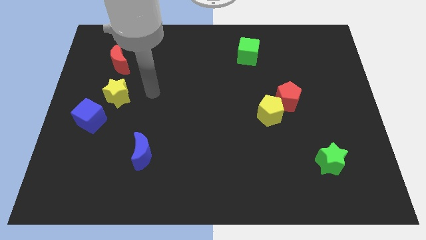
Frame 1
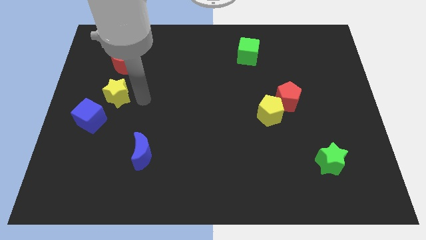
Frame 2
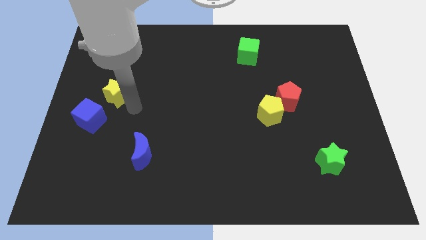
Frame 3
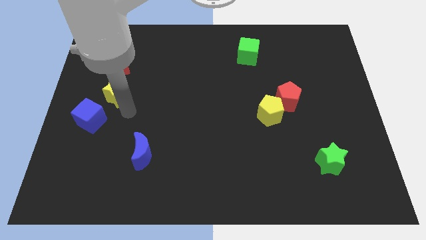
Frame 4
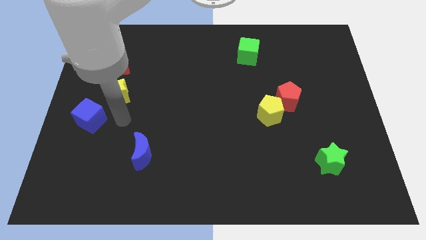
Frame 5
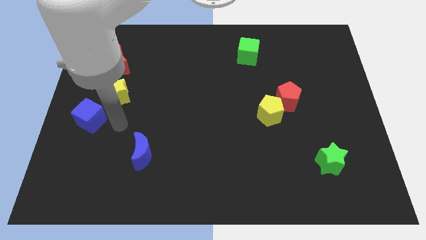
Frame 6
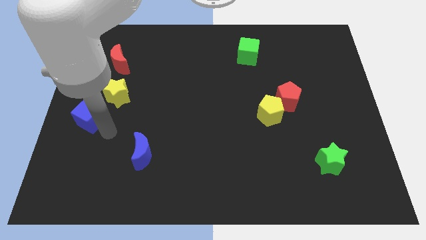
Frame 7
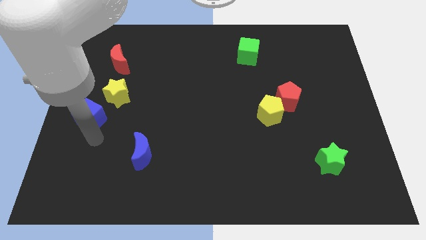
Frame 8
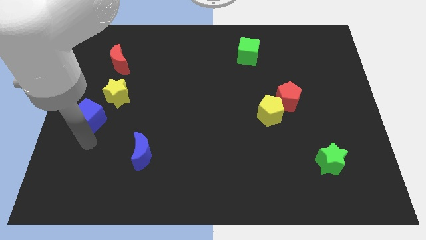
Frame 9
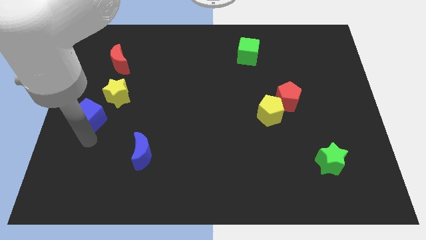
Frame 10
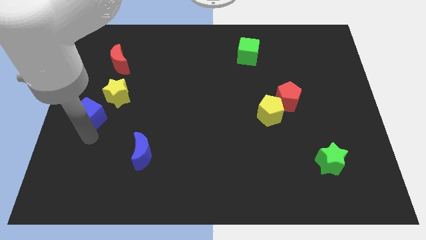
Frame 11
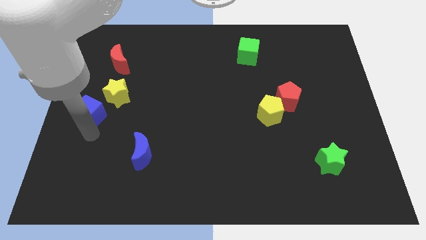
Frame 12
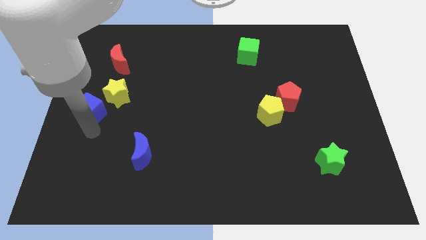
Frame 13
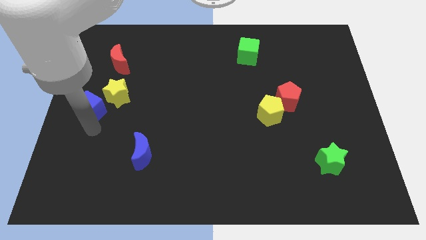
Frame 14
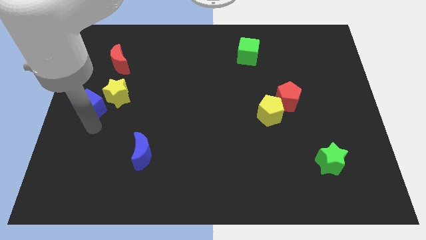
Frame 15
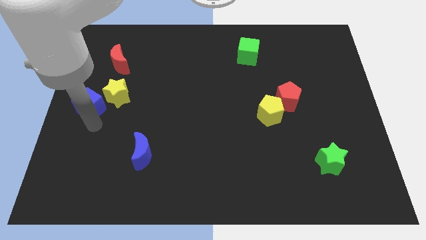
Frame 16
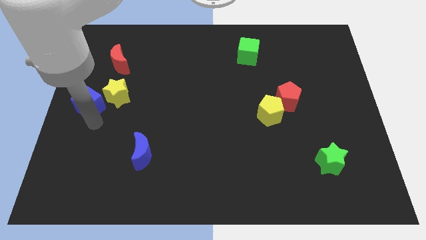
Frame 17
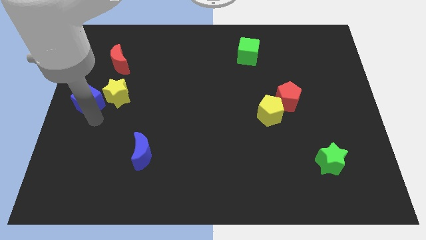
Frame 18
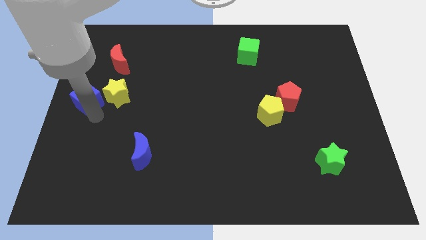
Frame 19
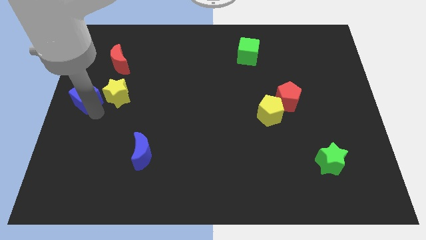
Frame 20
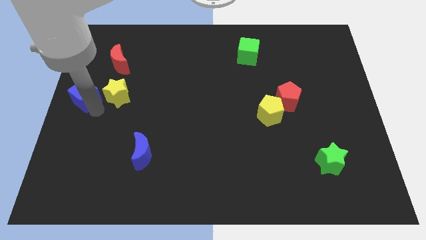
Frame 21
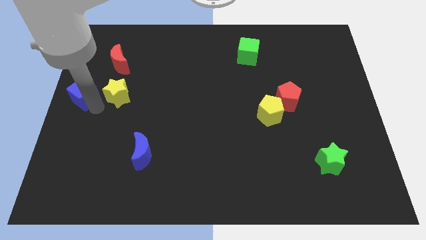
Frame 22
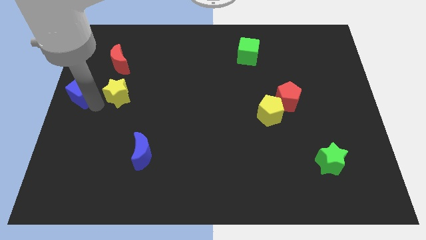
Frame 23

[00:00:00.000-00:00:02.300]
slide the blue cube somewhat upwards

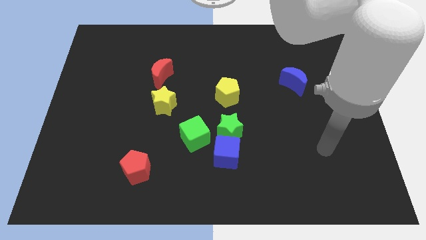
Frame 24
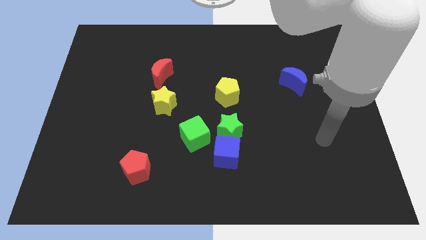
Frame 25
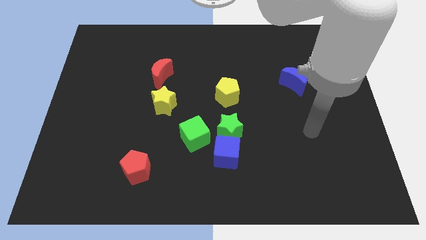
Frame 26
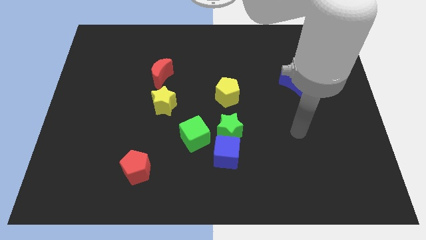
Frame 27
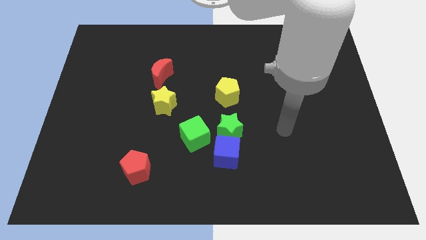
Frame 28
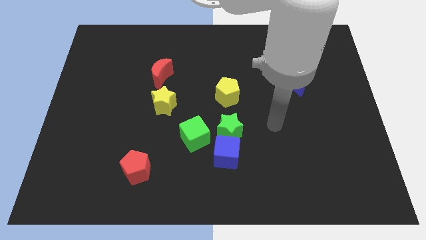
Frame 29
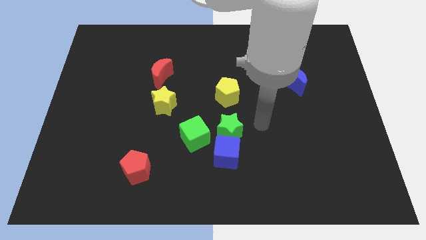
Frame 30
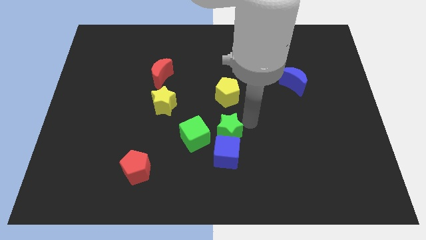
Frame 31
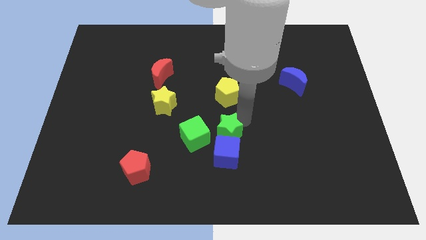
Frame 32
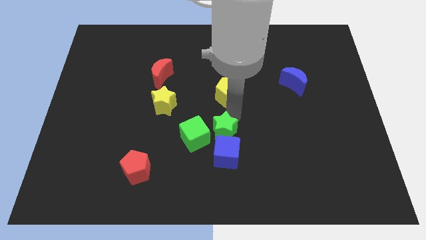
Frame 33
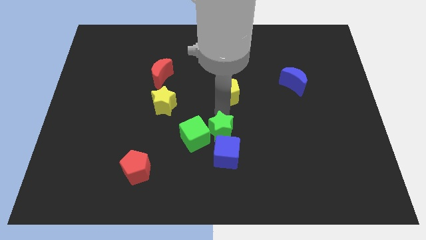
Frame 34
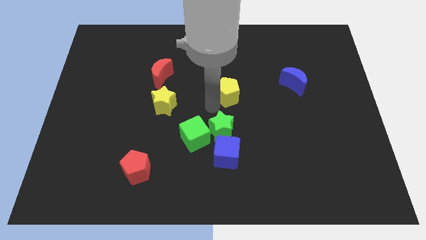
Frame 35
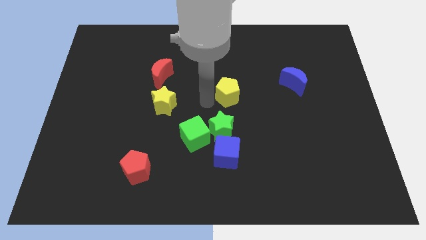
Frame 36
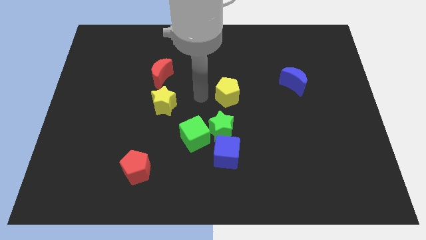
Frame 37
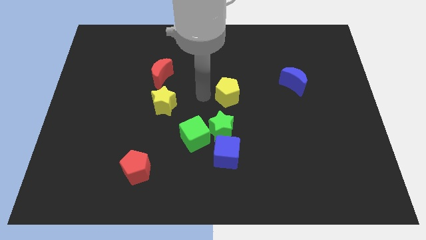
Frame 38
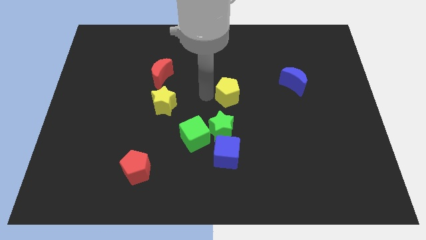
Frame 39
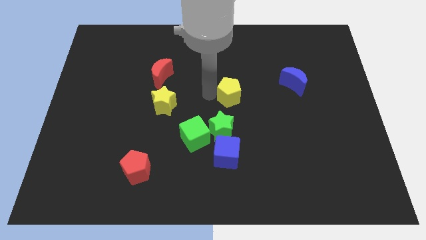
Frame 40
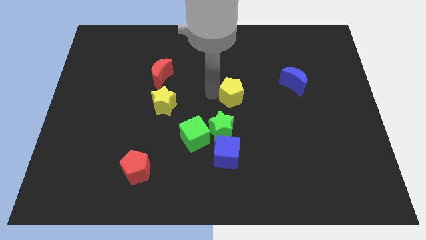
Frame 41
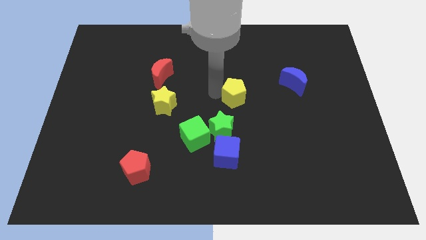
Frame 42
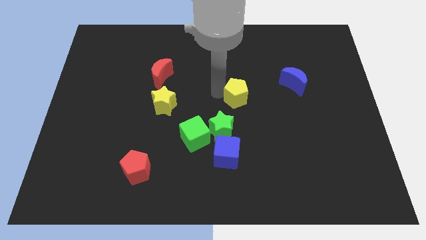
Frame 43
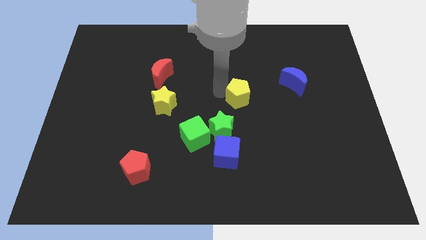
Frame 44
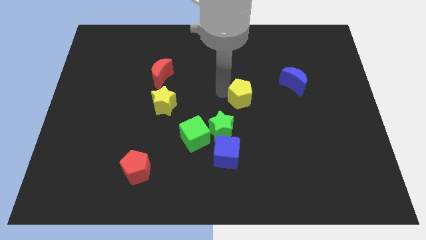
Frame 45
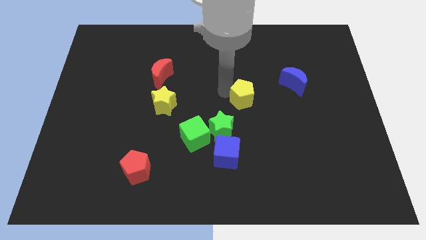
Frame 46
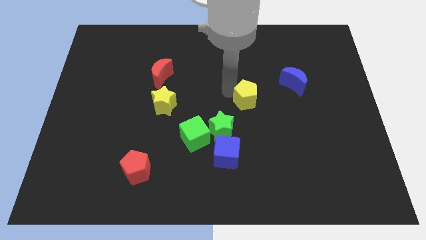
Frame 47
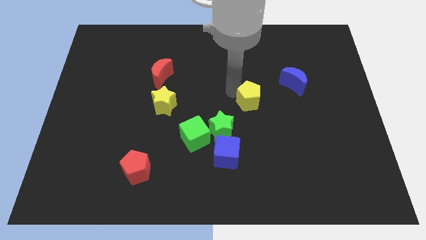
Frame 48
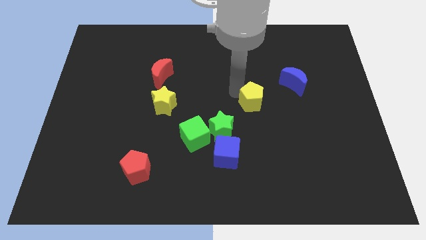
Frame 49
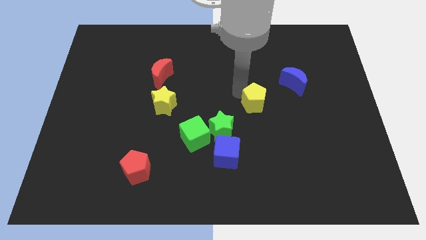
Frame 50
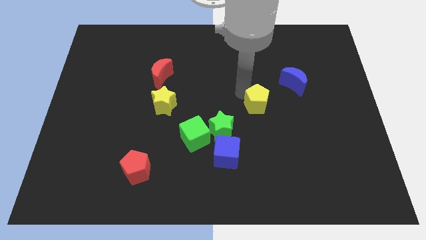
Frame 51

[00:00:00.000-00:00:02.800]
slightly move the yellow pentagon right

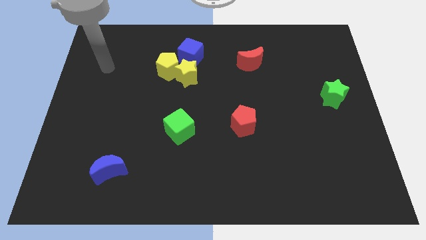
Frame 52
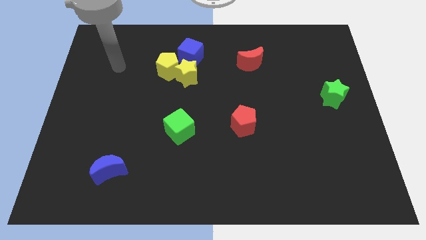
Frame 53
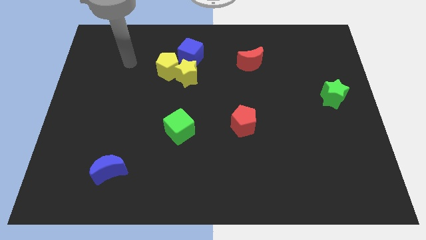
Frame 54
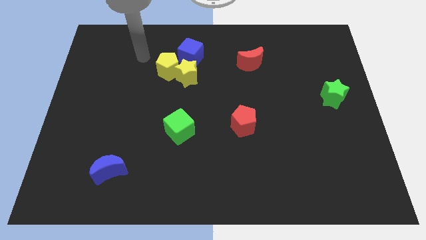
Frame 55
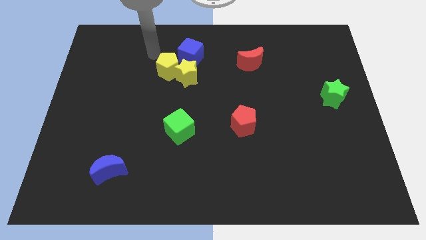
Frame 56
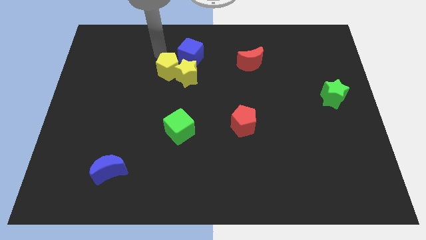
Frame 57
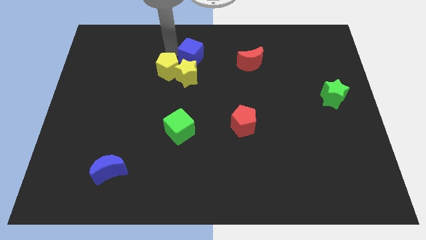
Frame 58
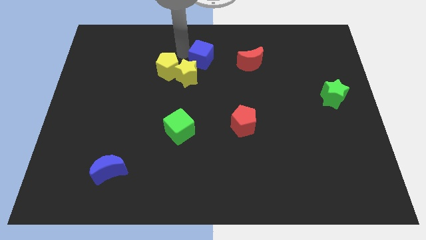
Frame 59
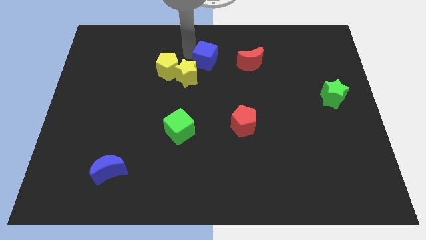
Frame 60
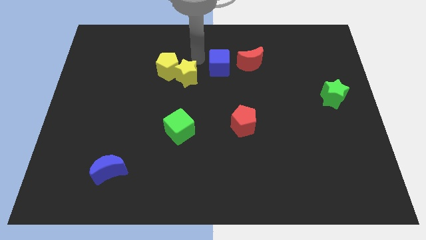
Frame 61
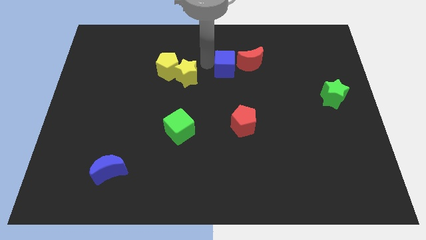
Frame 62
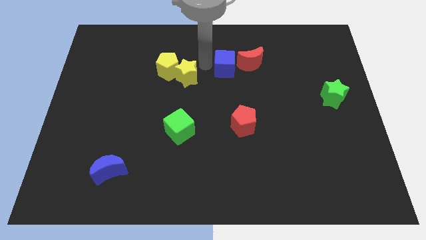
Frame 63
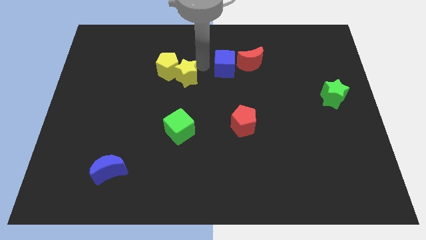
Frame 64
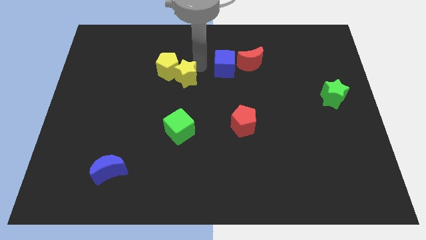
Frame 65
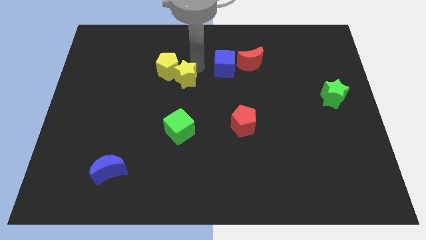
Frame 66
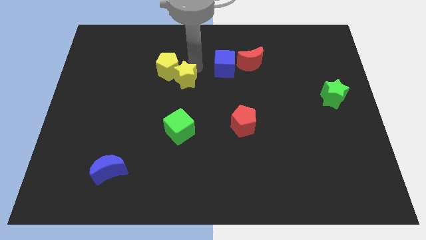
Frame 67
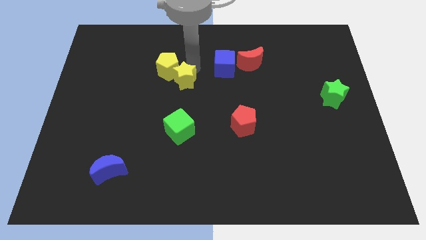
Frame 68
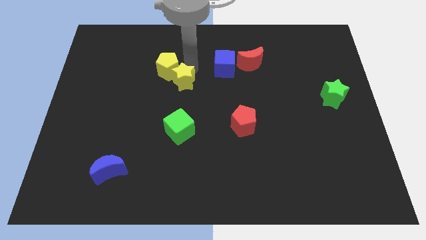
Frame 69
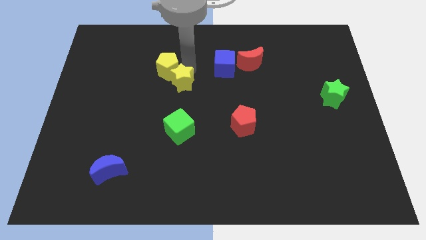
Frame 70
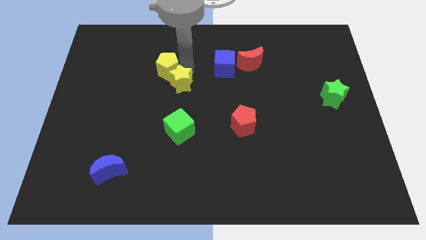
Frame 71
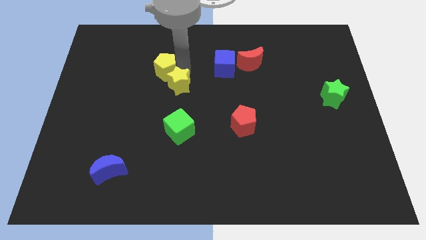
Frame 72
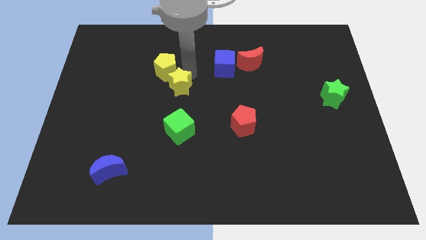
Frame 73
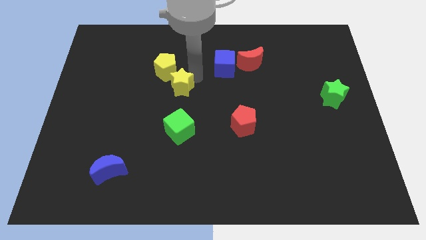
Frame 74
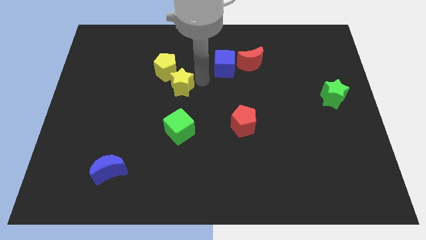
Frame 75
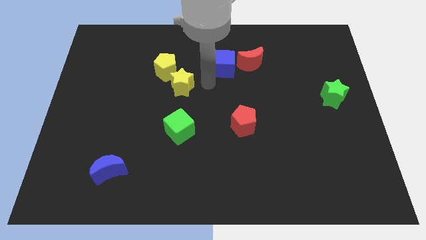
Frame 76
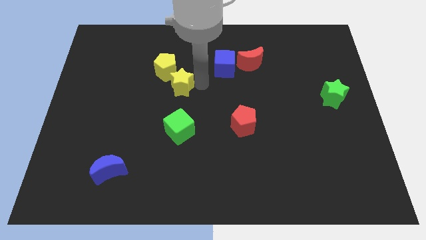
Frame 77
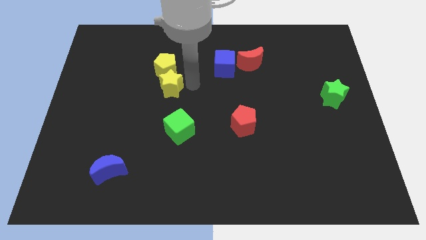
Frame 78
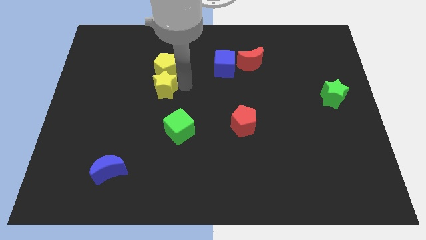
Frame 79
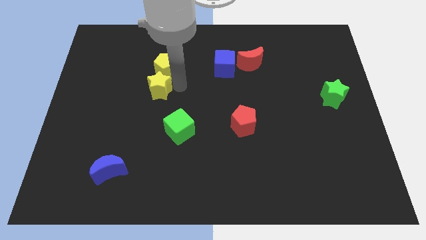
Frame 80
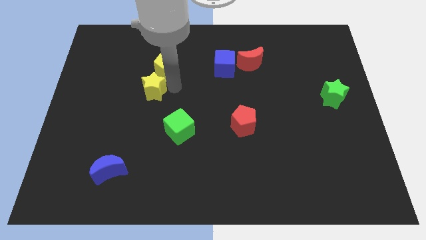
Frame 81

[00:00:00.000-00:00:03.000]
slide the yellow star left a bit
